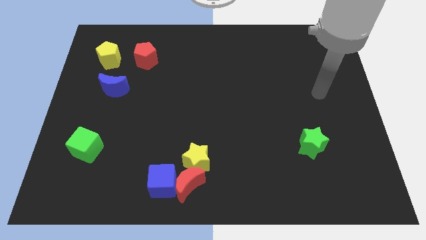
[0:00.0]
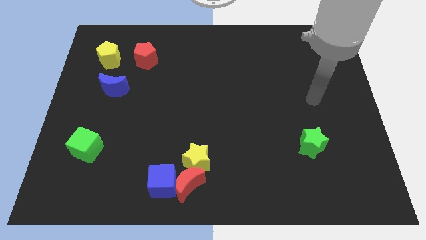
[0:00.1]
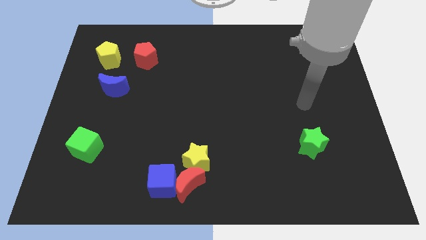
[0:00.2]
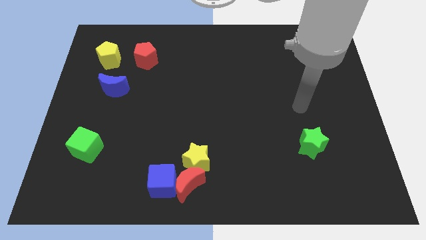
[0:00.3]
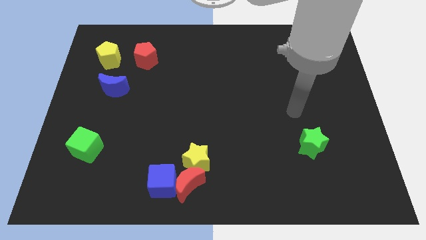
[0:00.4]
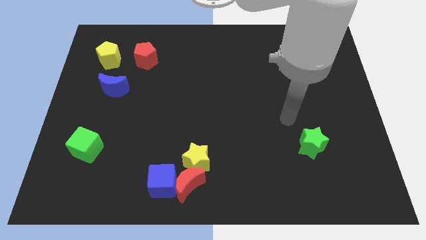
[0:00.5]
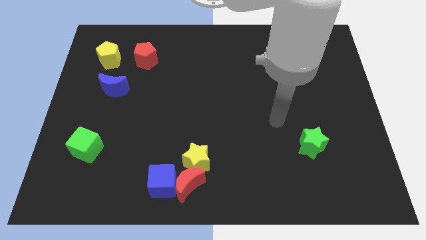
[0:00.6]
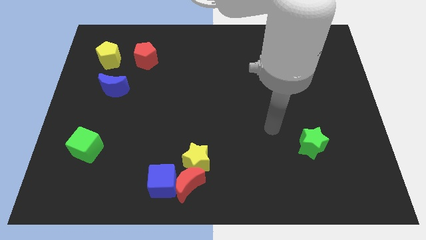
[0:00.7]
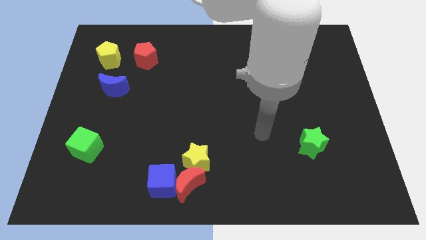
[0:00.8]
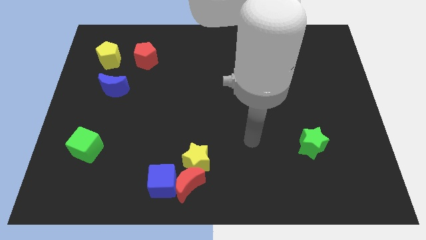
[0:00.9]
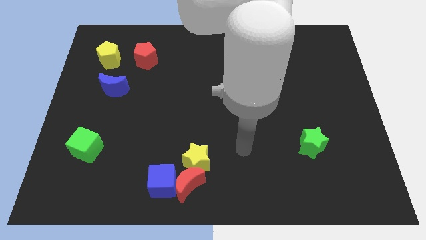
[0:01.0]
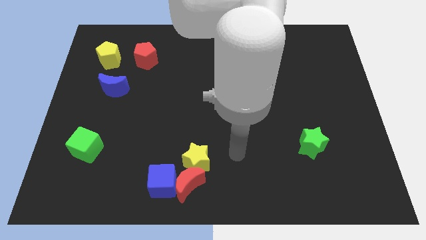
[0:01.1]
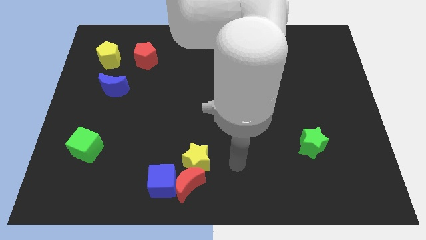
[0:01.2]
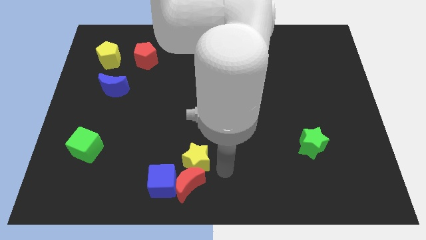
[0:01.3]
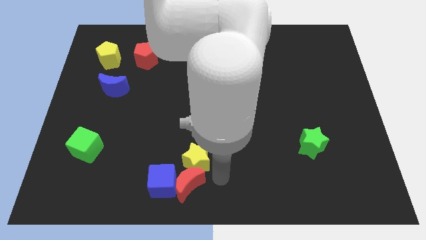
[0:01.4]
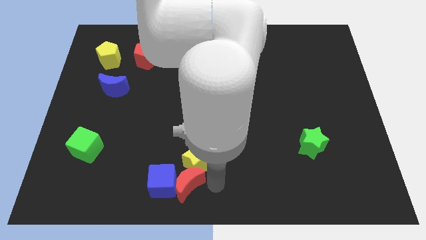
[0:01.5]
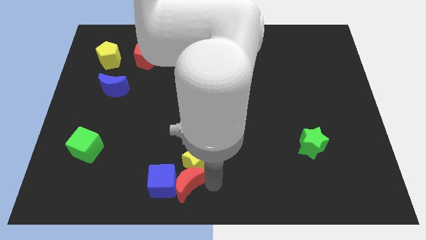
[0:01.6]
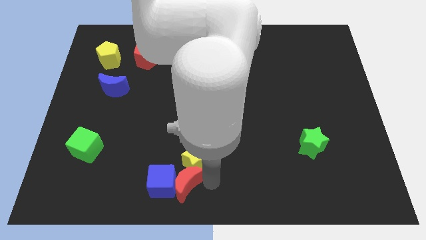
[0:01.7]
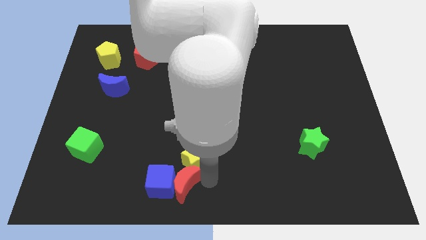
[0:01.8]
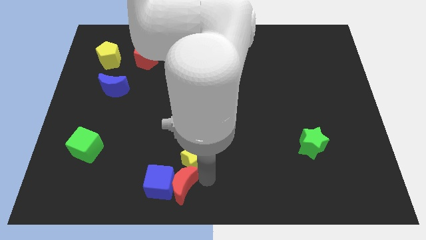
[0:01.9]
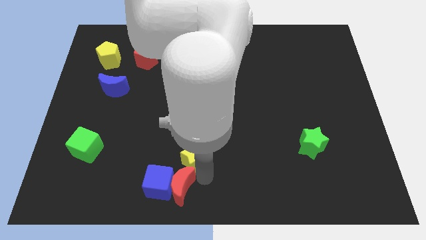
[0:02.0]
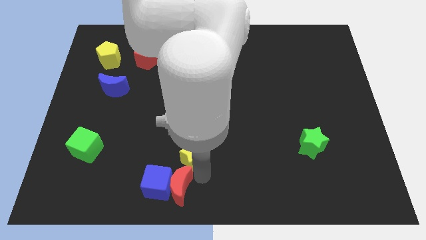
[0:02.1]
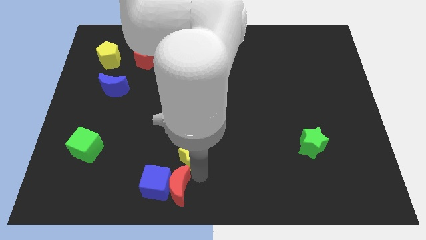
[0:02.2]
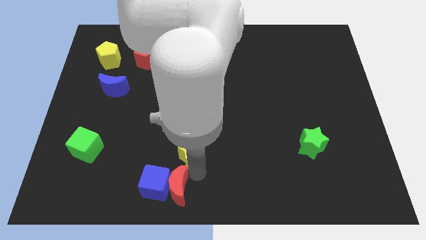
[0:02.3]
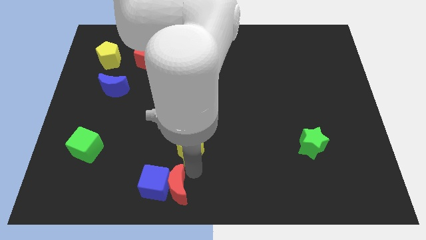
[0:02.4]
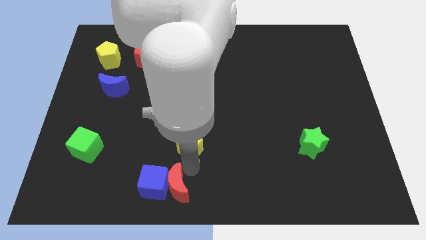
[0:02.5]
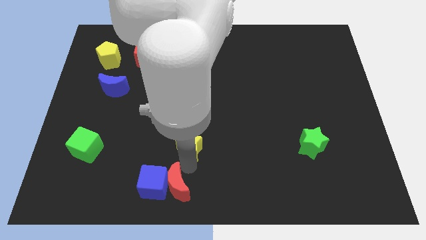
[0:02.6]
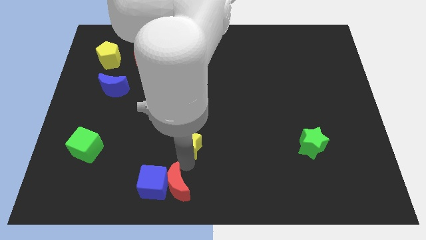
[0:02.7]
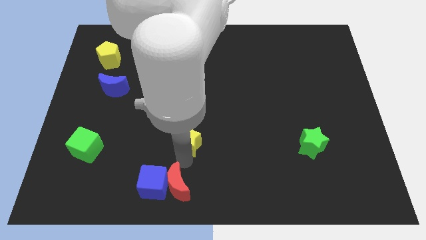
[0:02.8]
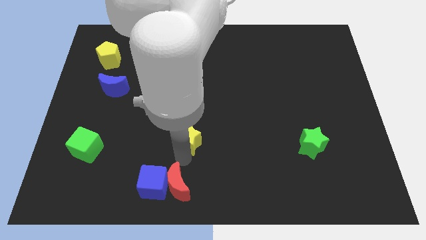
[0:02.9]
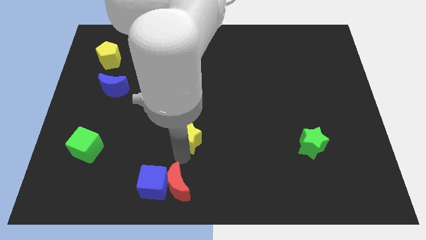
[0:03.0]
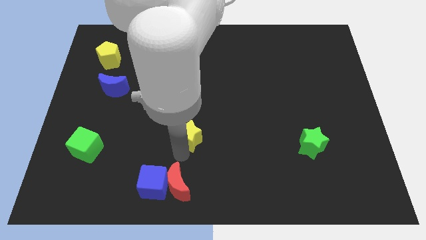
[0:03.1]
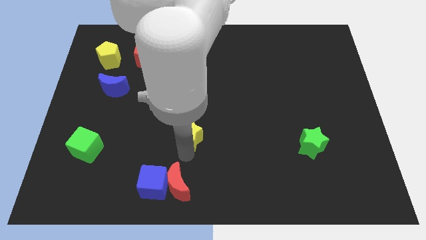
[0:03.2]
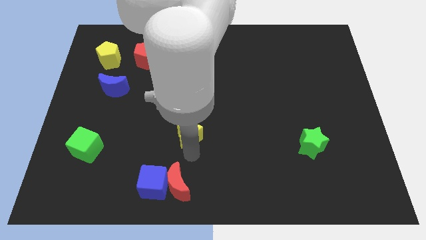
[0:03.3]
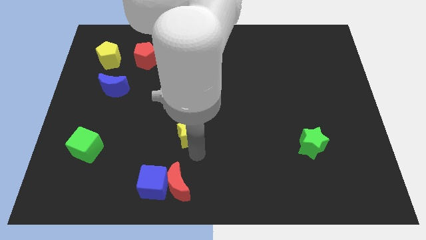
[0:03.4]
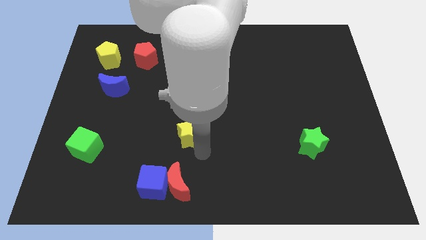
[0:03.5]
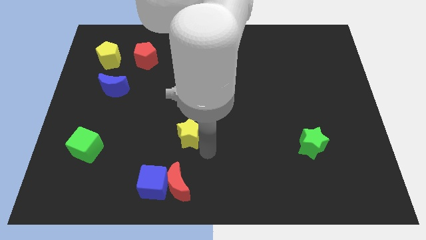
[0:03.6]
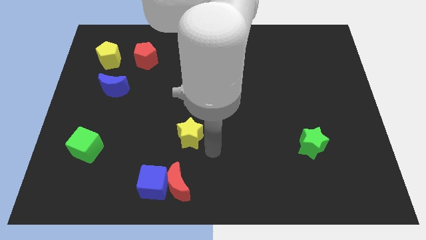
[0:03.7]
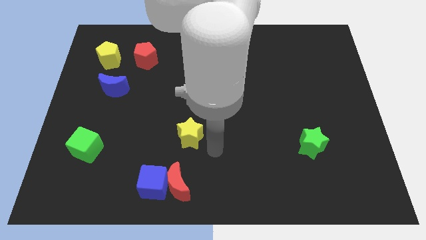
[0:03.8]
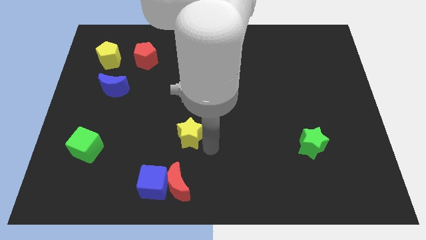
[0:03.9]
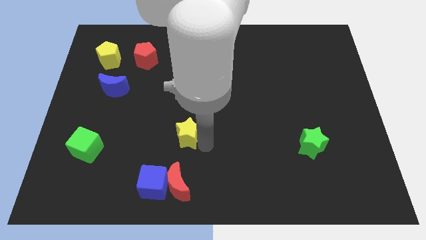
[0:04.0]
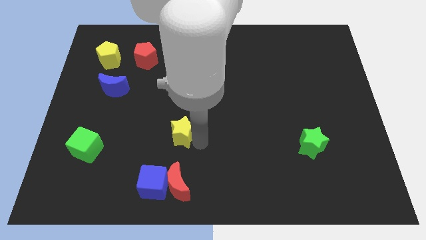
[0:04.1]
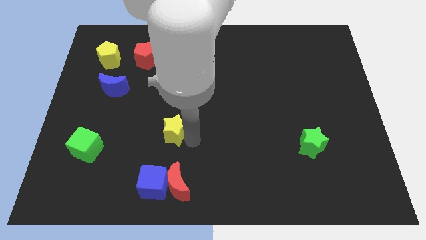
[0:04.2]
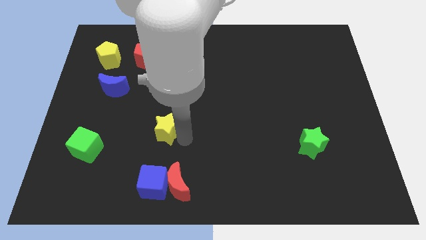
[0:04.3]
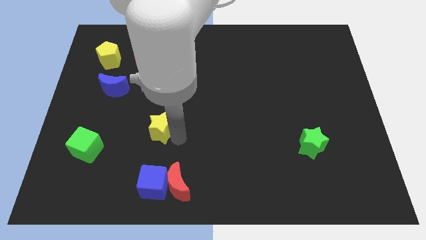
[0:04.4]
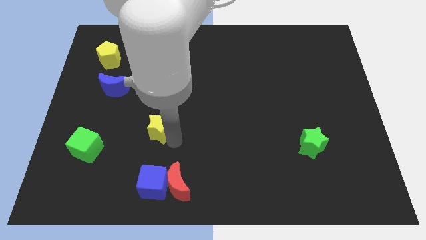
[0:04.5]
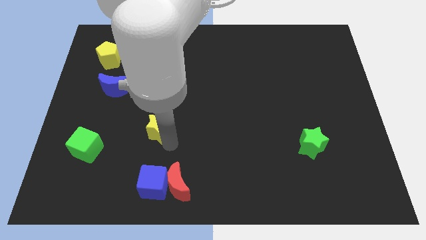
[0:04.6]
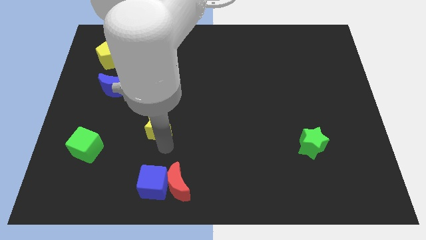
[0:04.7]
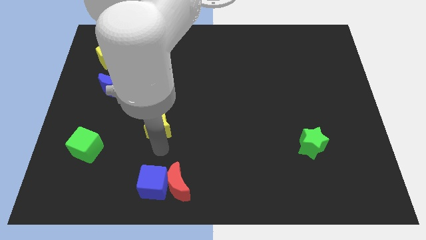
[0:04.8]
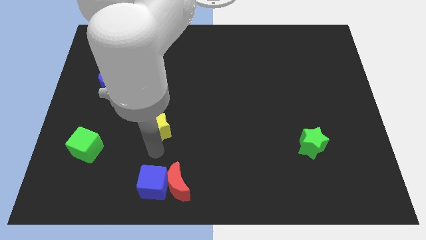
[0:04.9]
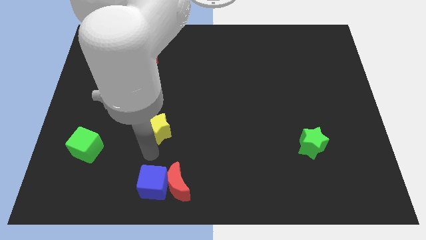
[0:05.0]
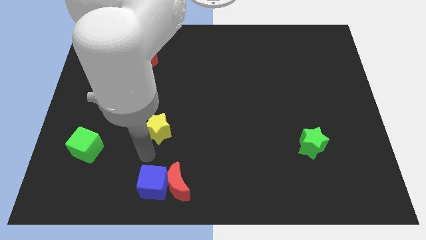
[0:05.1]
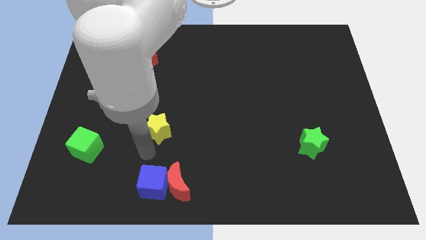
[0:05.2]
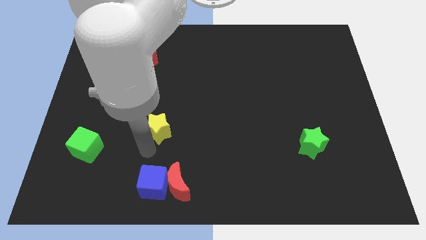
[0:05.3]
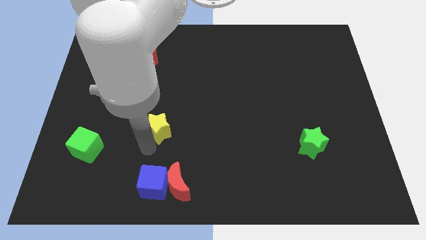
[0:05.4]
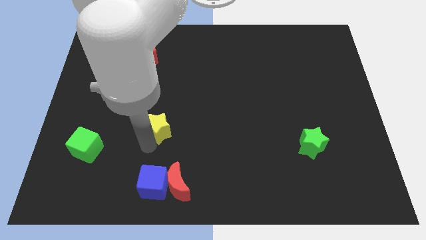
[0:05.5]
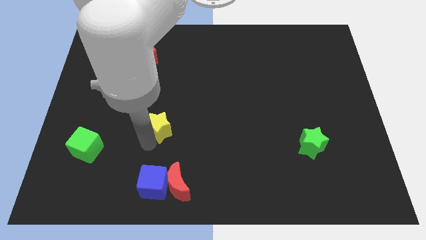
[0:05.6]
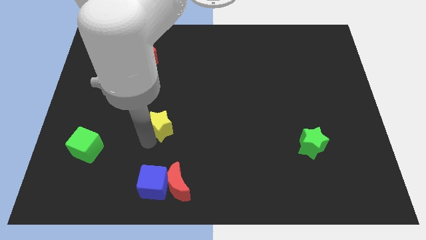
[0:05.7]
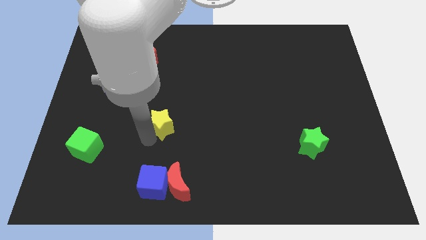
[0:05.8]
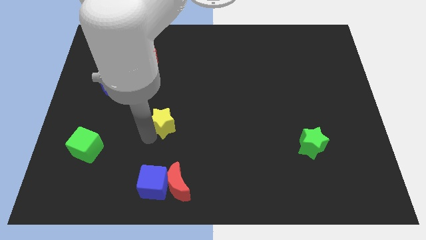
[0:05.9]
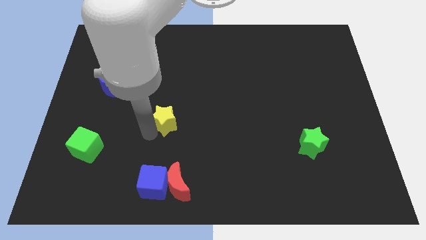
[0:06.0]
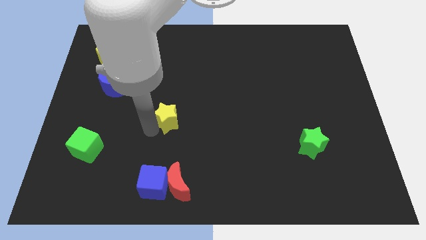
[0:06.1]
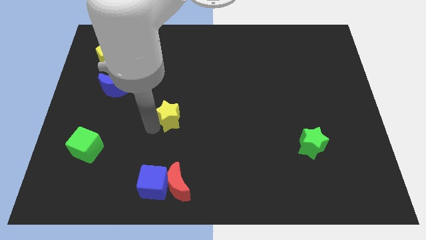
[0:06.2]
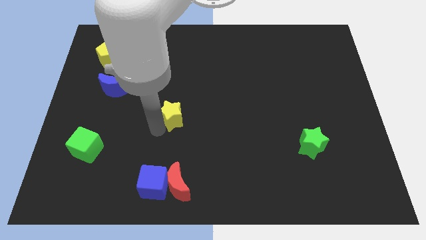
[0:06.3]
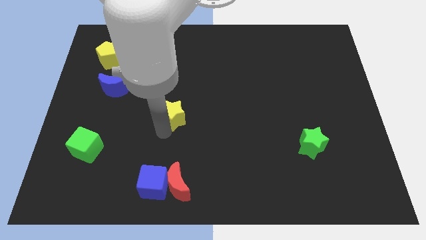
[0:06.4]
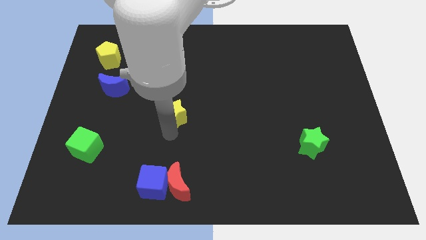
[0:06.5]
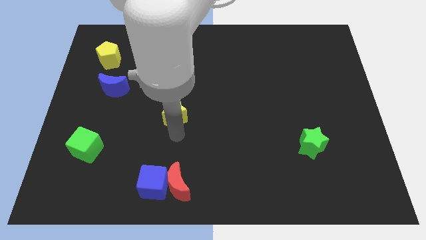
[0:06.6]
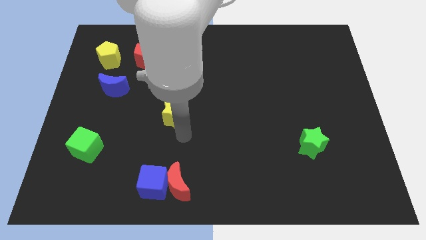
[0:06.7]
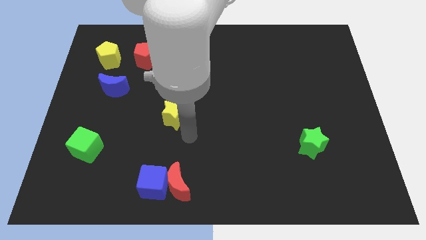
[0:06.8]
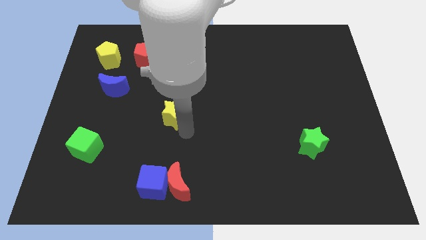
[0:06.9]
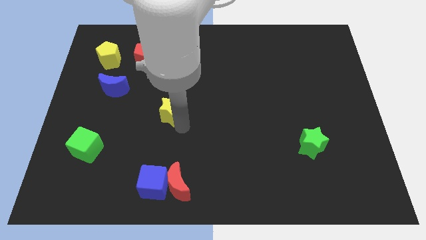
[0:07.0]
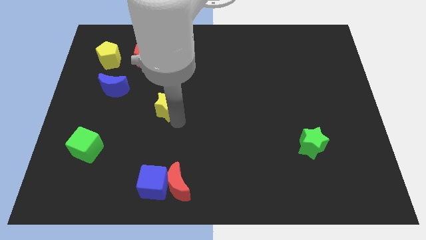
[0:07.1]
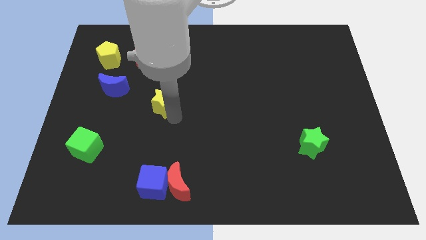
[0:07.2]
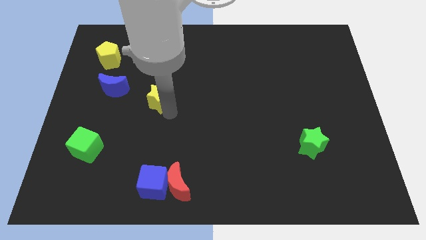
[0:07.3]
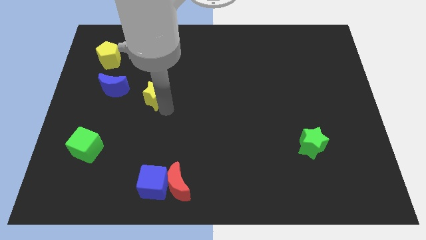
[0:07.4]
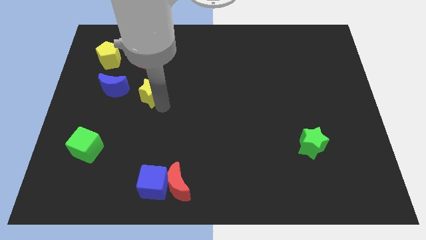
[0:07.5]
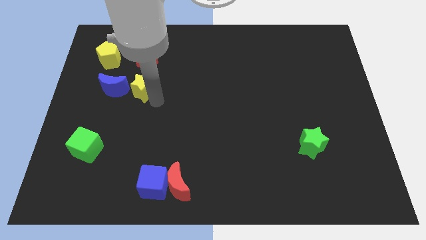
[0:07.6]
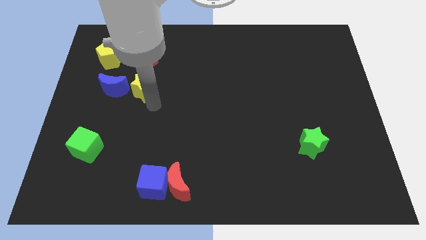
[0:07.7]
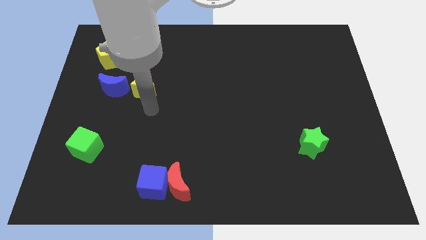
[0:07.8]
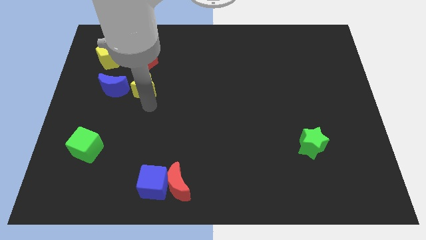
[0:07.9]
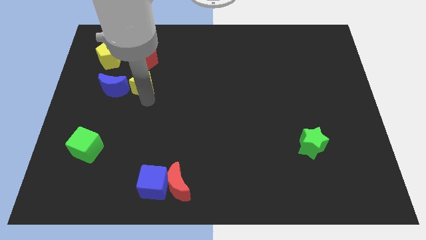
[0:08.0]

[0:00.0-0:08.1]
slide the yellow star to the top right of the blue moon

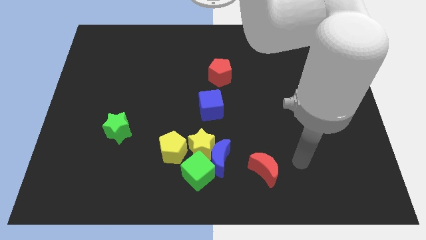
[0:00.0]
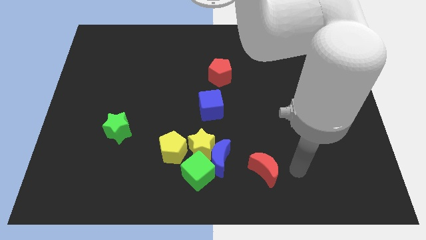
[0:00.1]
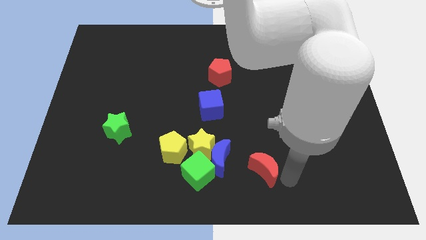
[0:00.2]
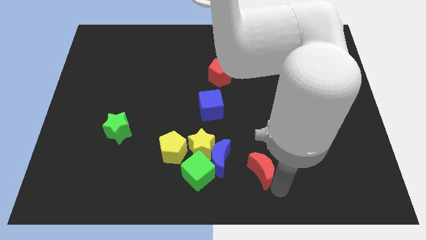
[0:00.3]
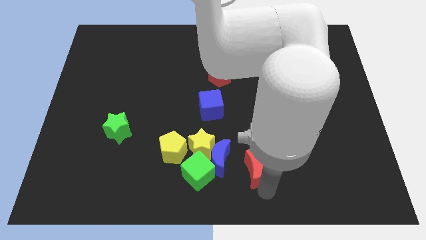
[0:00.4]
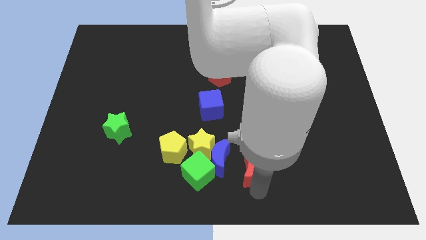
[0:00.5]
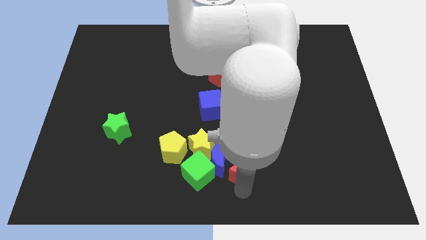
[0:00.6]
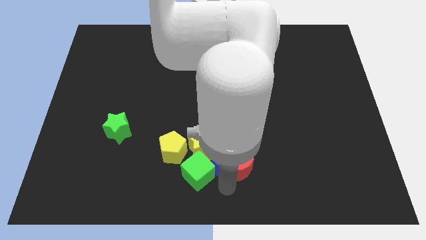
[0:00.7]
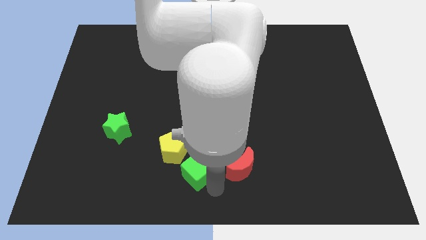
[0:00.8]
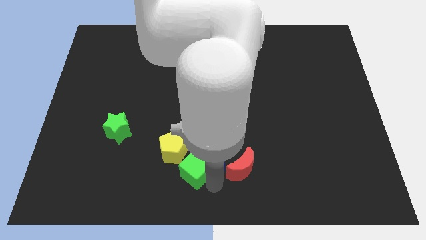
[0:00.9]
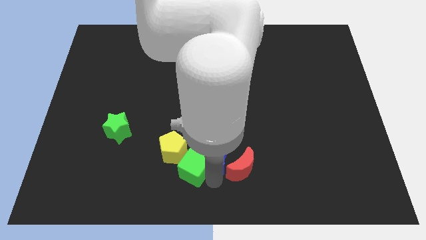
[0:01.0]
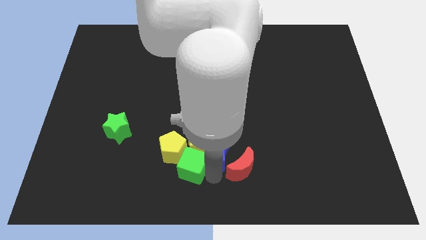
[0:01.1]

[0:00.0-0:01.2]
push the blue moon to the top right of the yellow star
